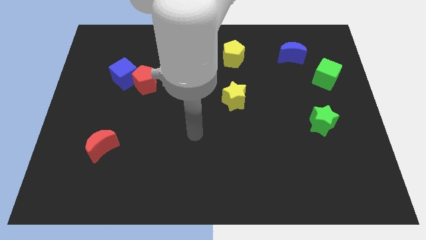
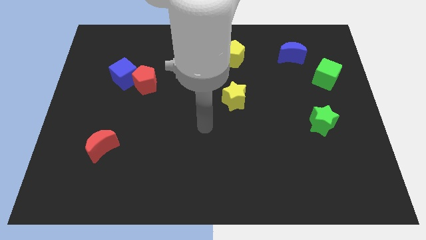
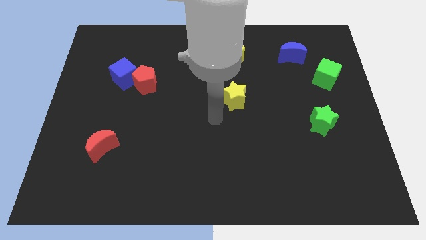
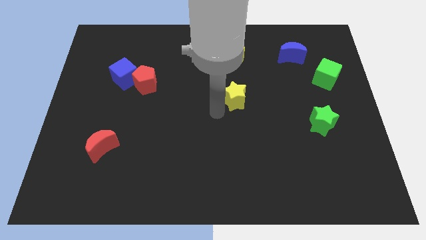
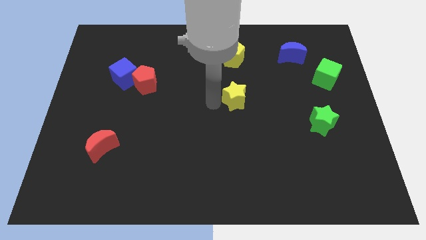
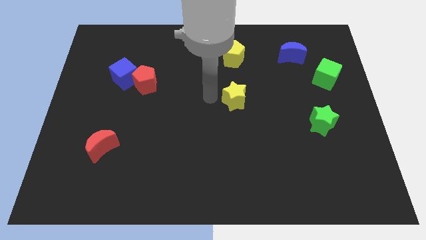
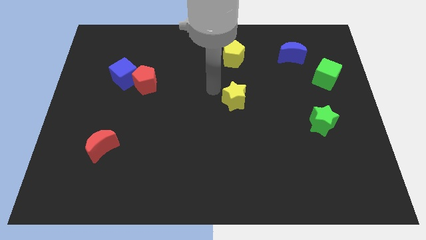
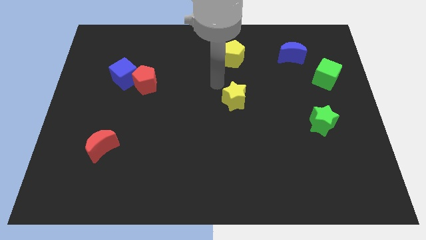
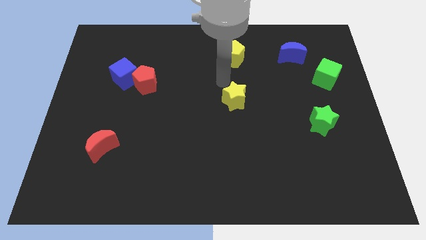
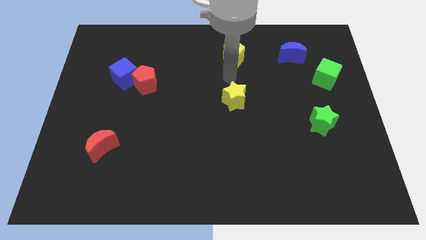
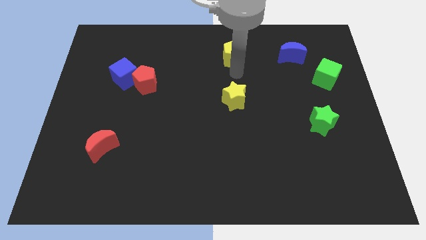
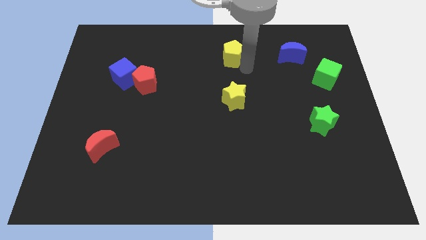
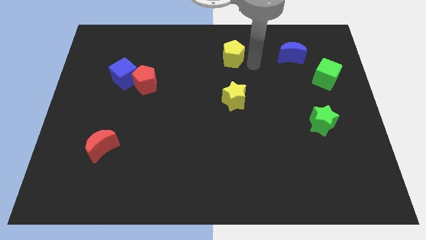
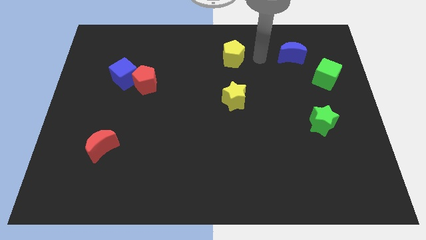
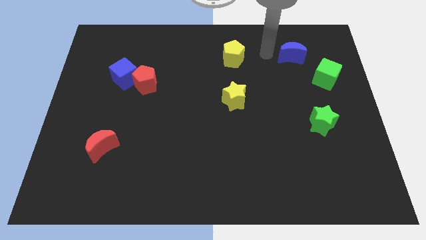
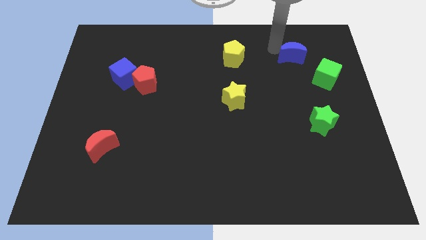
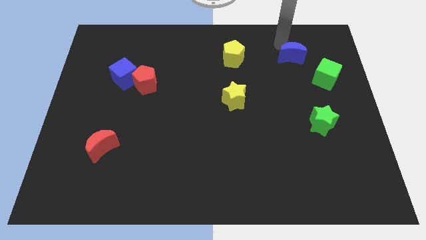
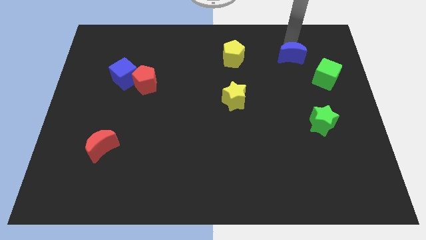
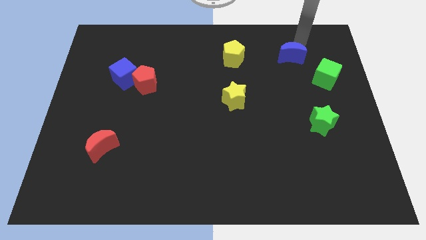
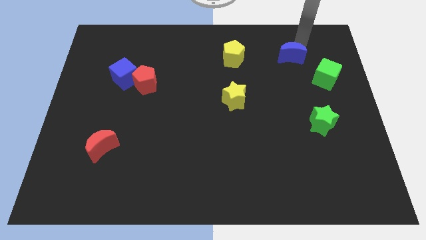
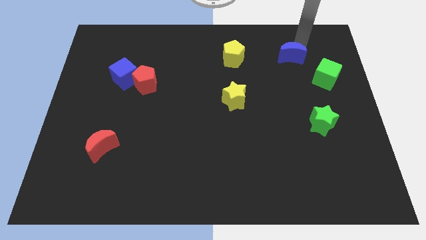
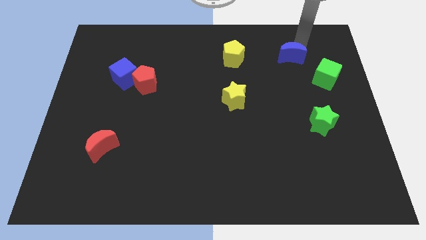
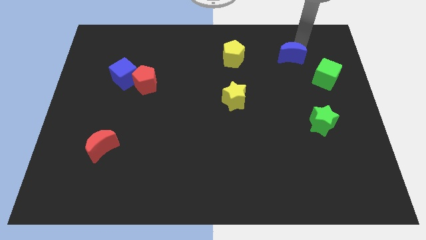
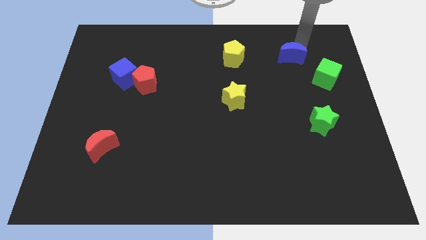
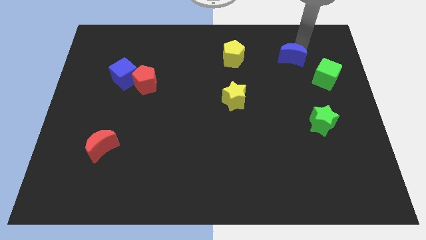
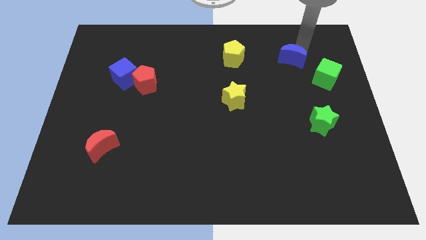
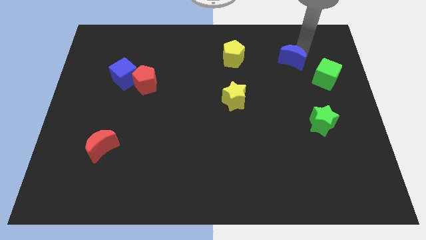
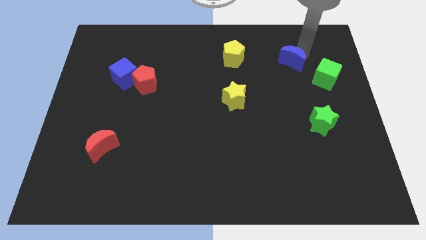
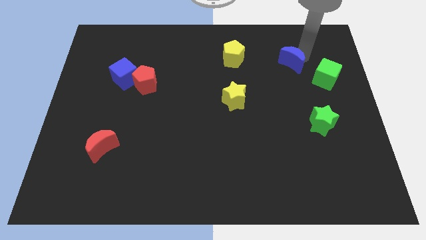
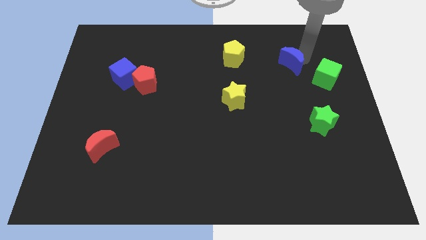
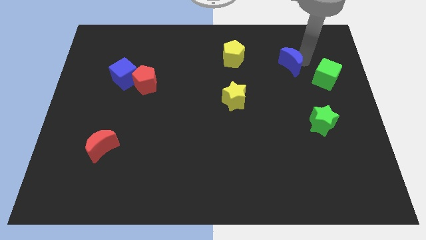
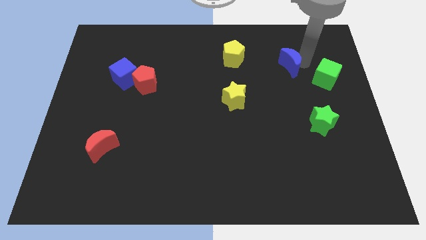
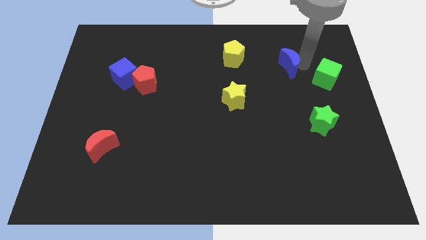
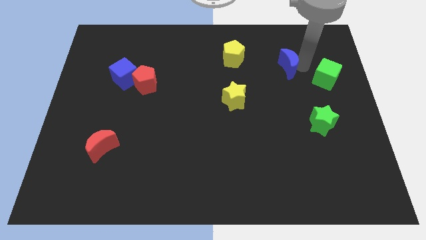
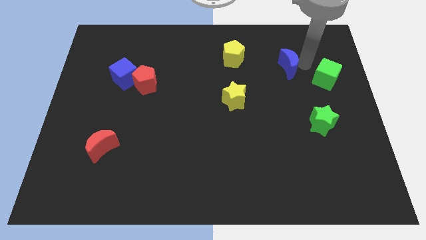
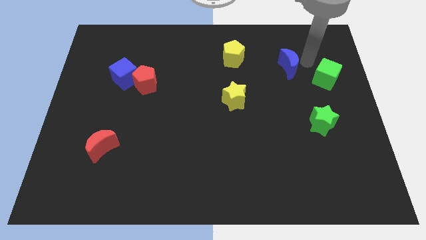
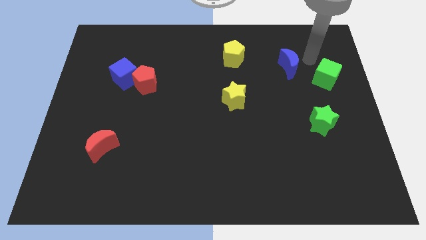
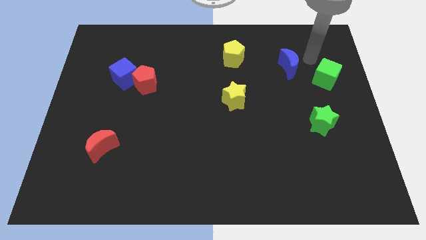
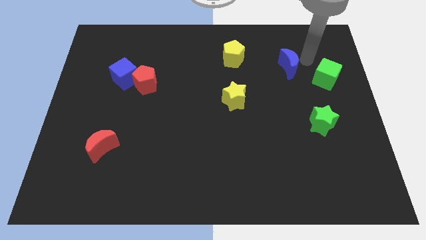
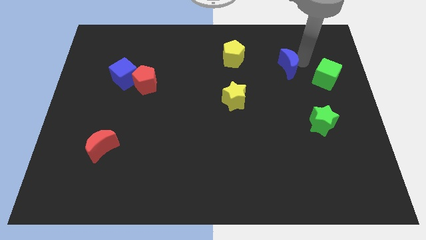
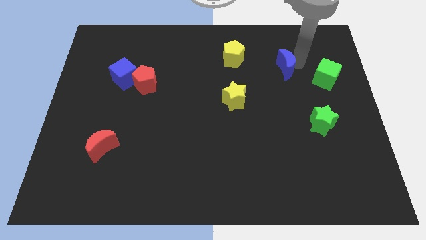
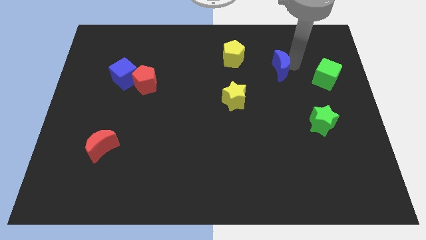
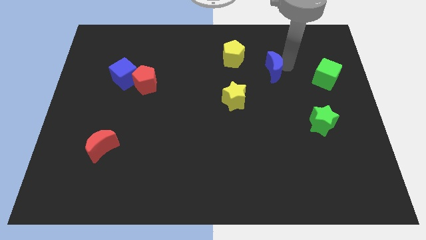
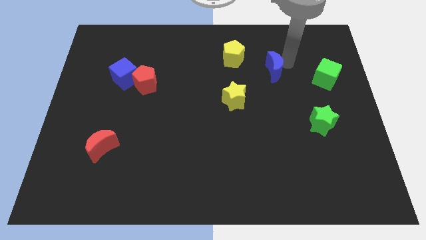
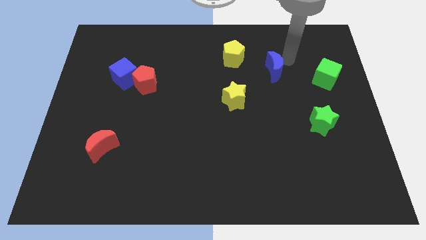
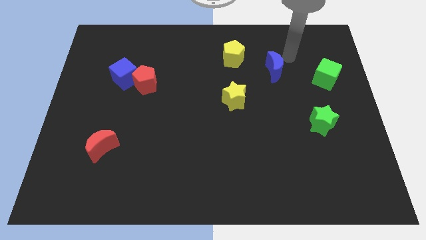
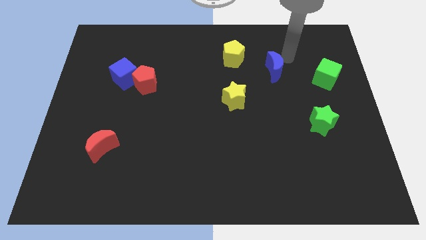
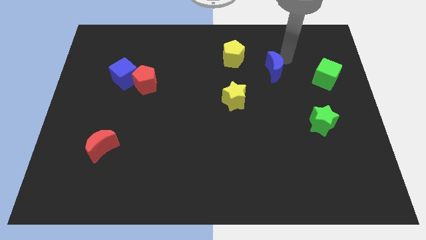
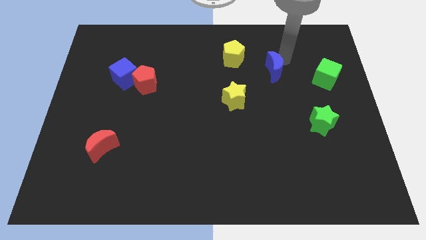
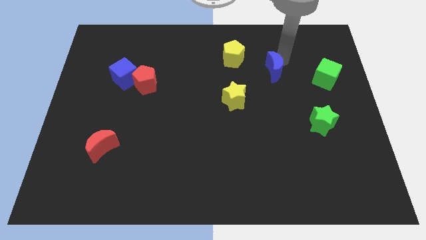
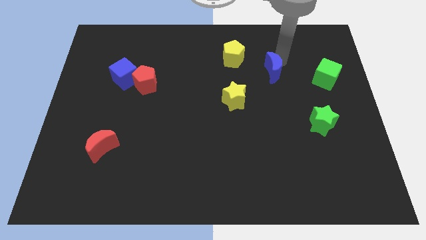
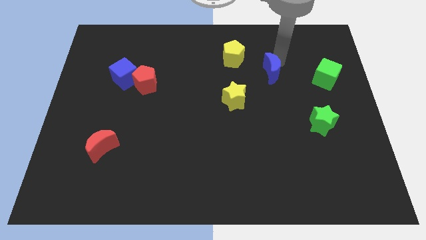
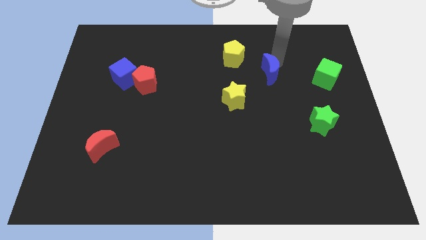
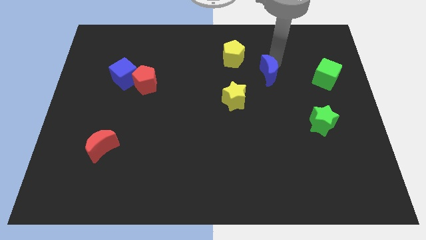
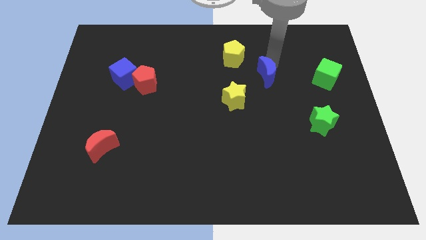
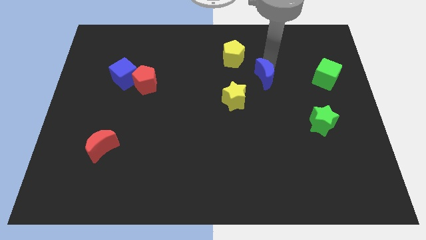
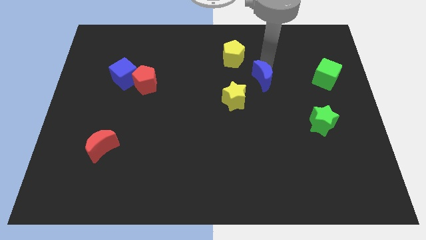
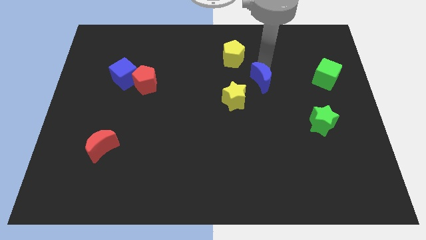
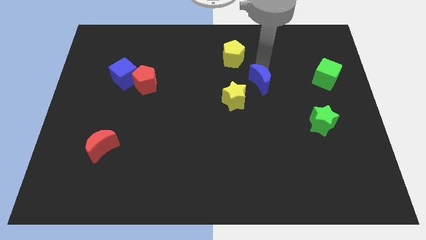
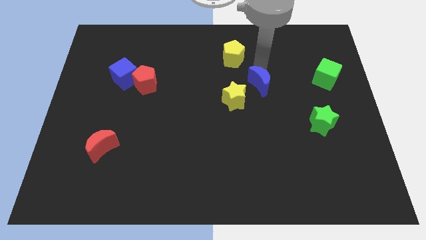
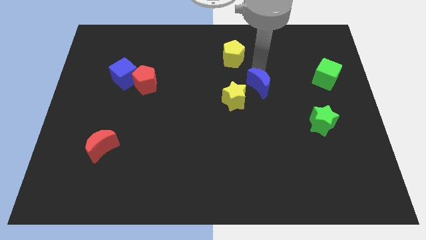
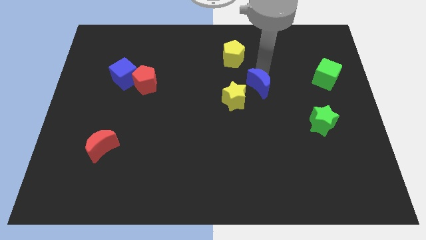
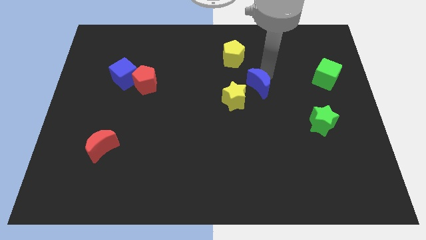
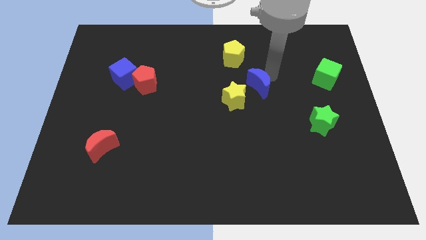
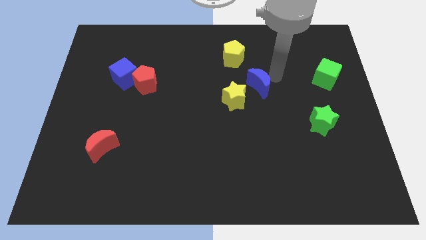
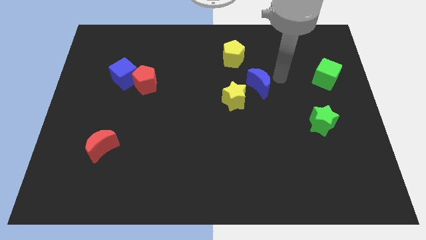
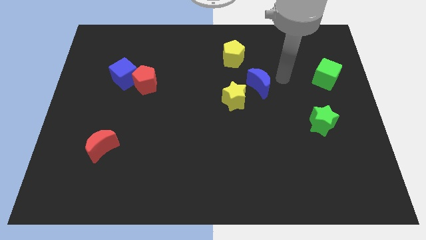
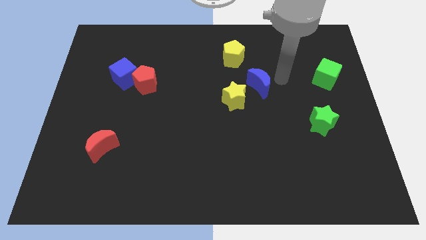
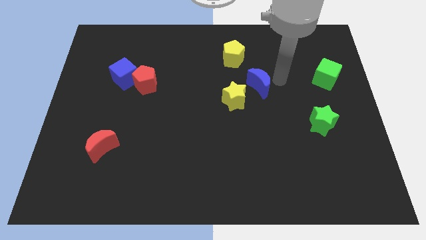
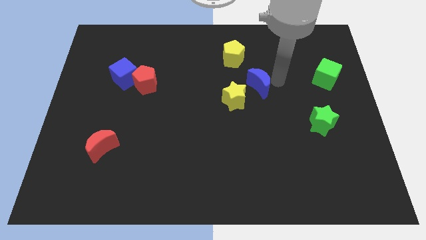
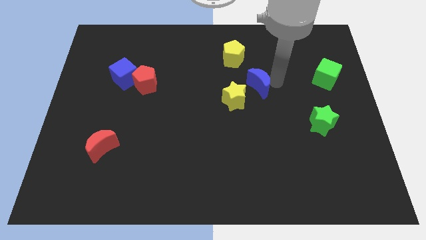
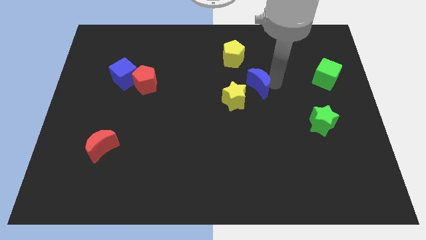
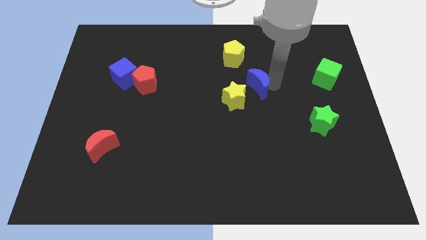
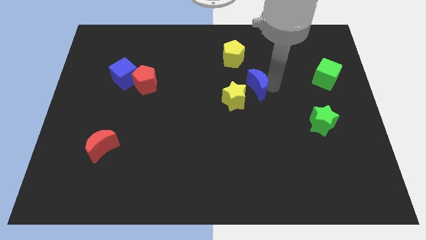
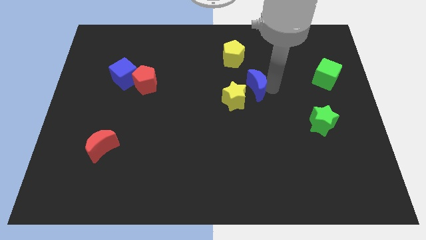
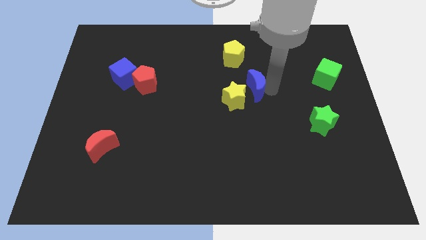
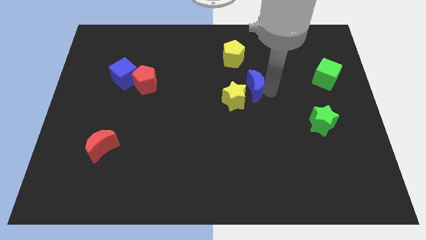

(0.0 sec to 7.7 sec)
move the blue moon next to the yellow star

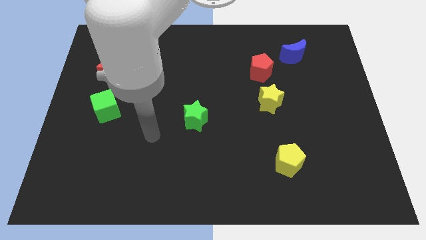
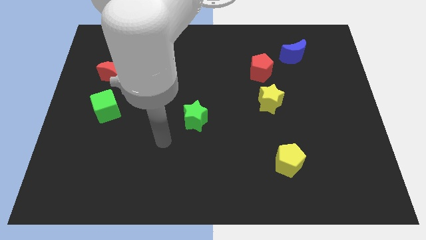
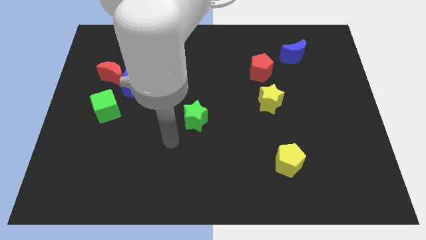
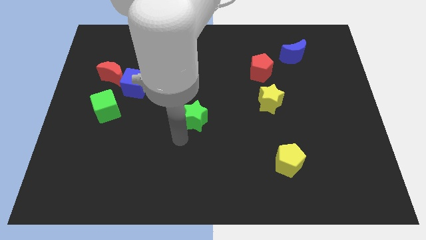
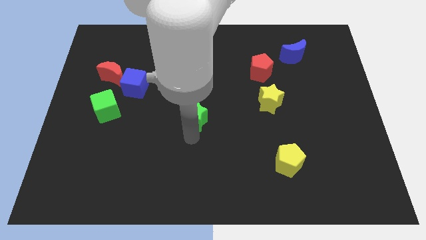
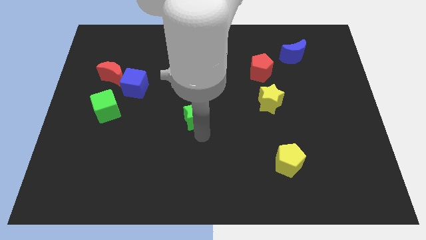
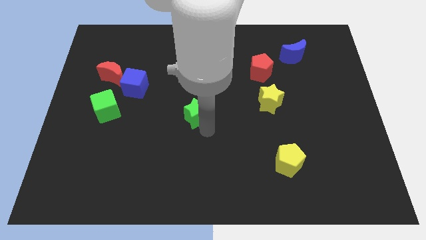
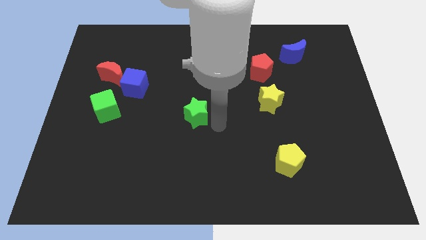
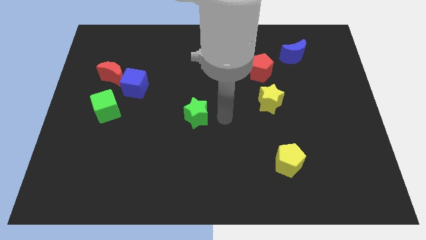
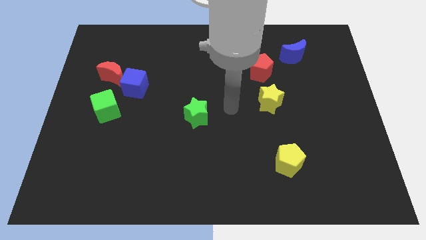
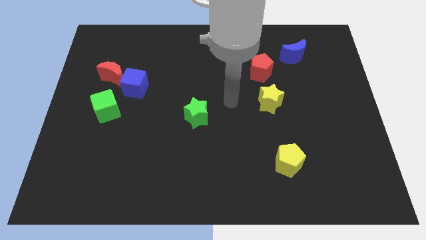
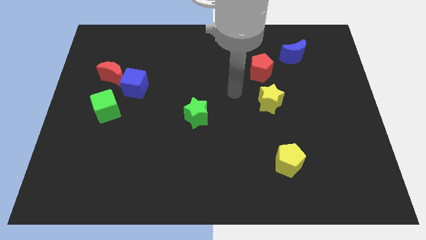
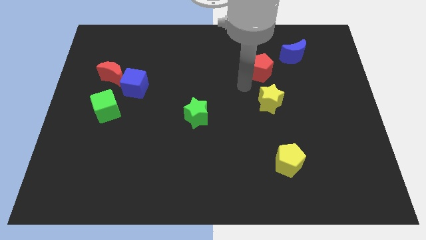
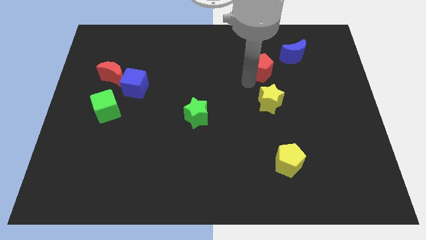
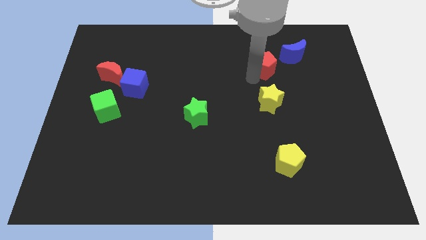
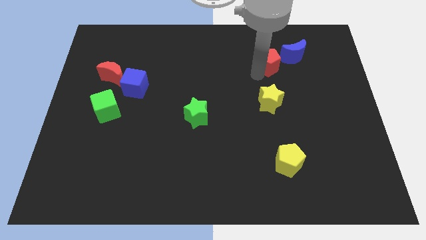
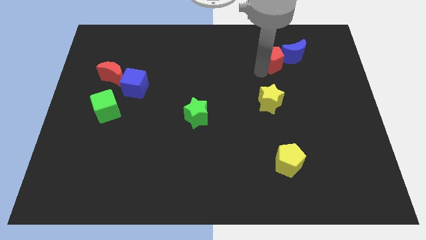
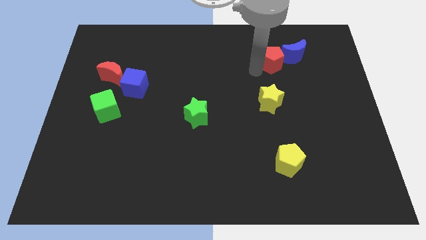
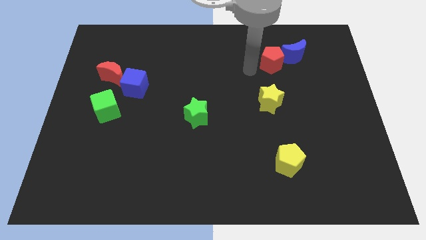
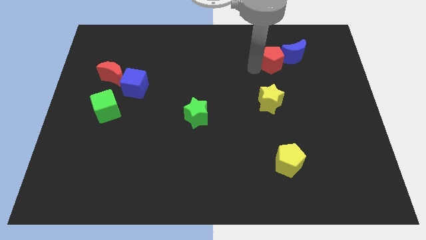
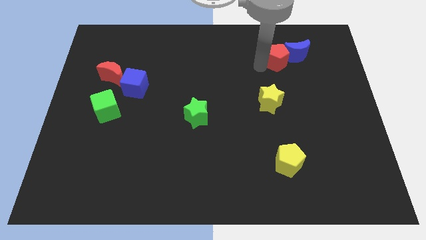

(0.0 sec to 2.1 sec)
slide the red pentagon close to the blue moon
